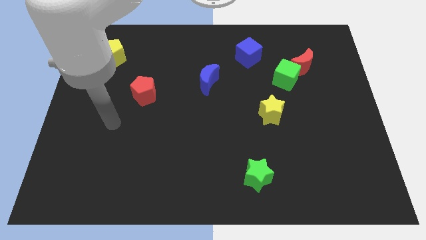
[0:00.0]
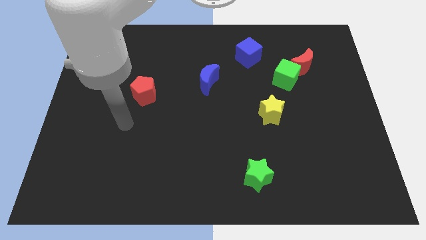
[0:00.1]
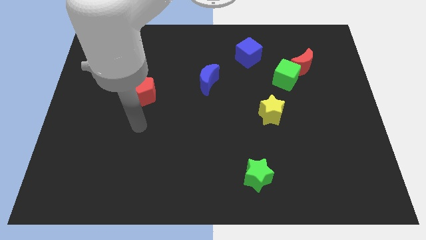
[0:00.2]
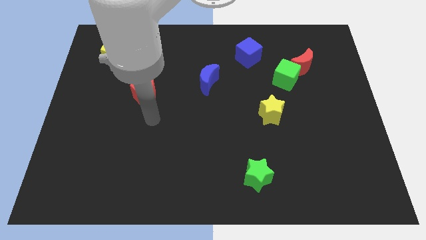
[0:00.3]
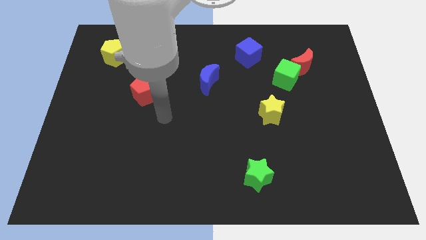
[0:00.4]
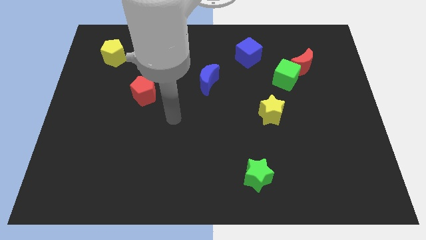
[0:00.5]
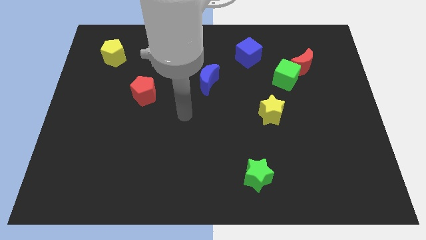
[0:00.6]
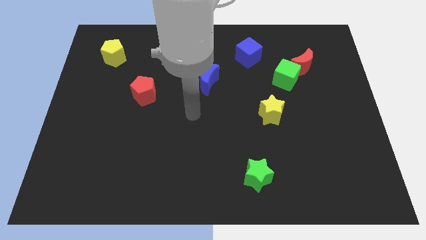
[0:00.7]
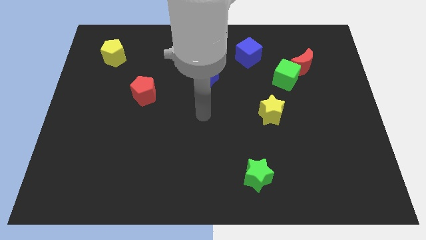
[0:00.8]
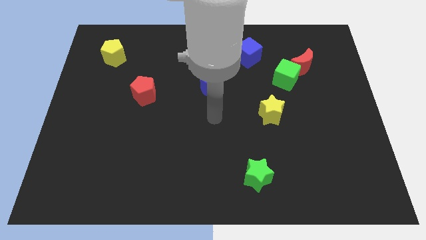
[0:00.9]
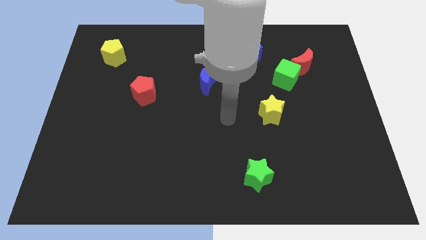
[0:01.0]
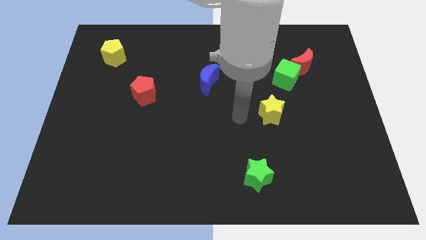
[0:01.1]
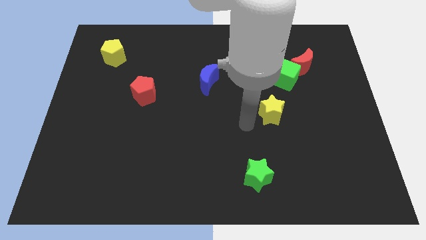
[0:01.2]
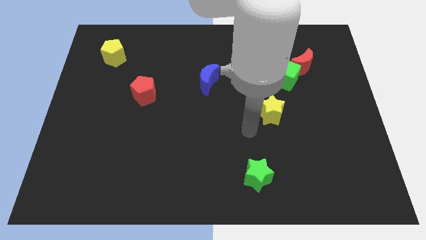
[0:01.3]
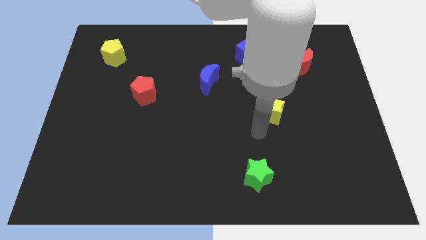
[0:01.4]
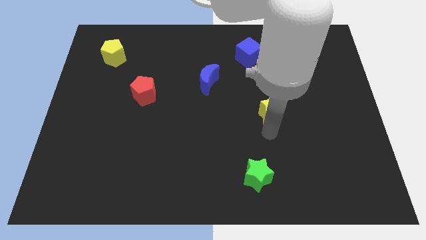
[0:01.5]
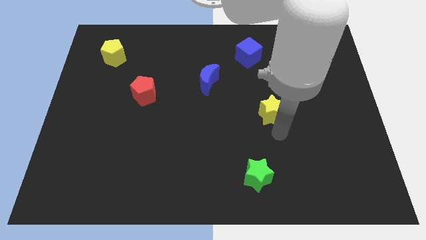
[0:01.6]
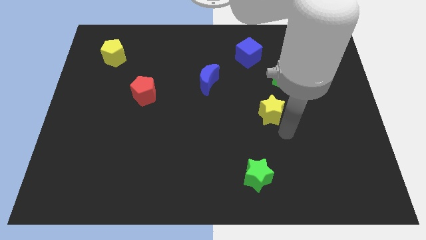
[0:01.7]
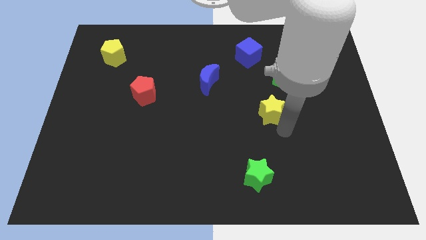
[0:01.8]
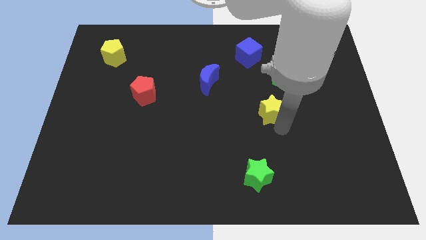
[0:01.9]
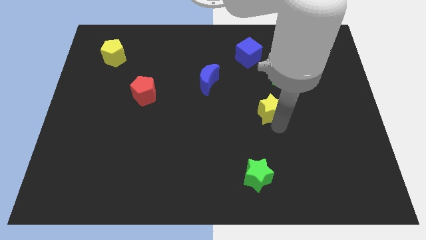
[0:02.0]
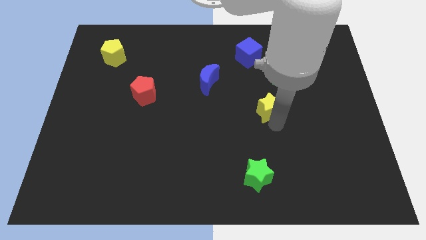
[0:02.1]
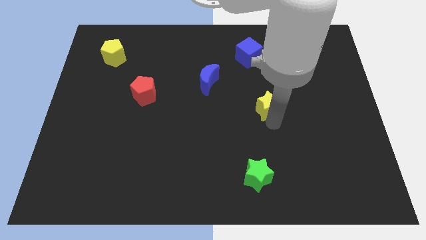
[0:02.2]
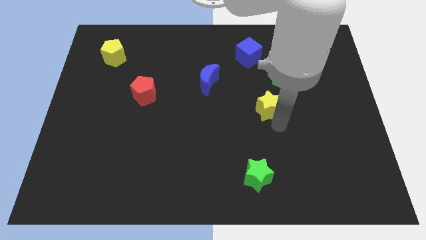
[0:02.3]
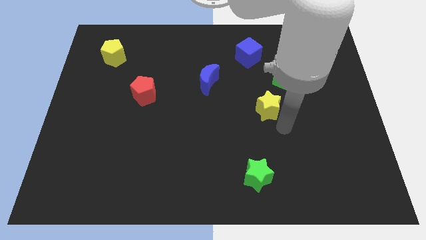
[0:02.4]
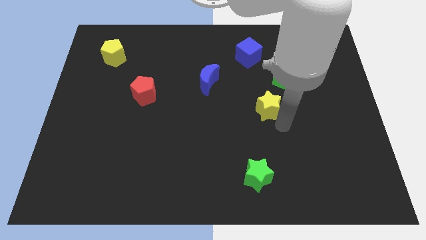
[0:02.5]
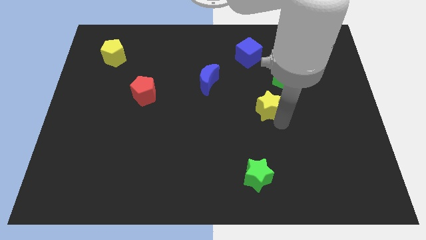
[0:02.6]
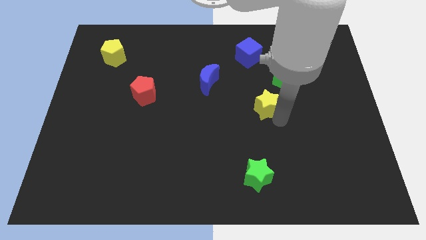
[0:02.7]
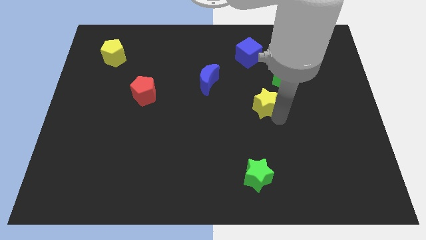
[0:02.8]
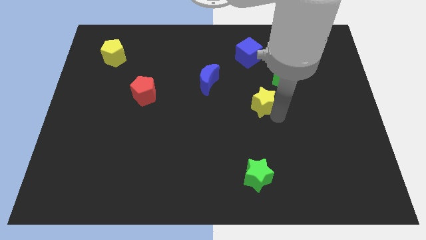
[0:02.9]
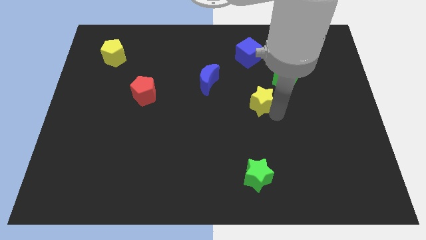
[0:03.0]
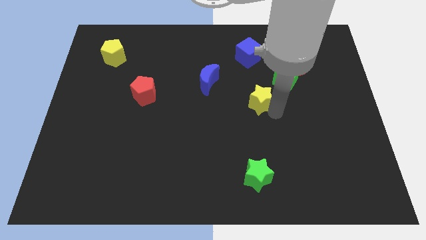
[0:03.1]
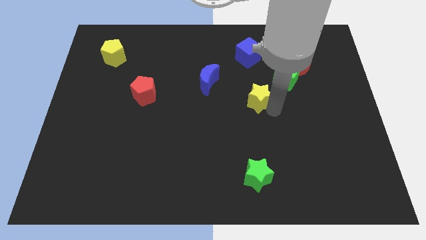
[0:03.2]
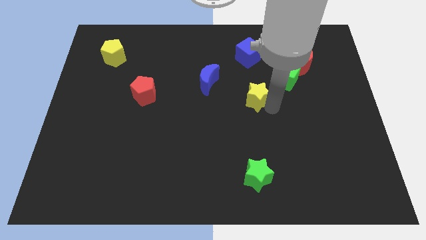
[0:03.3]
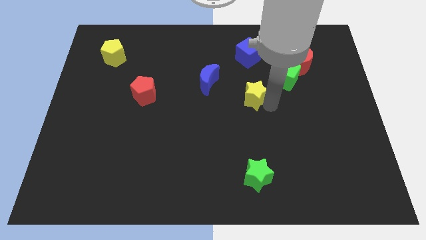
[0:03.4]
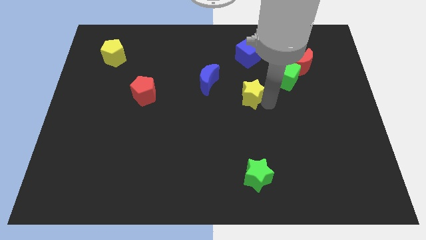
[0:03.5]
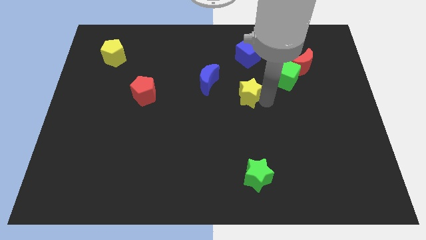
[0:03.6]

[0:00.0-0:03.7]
slide the yellow star a bit up and then to the left

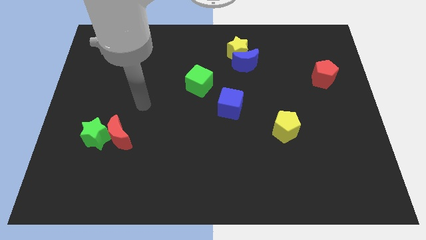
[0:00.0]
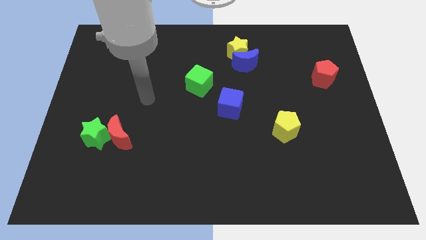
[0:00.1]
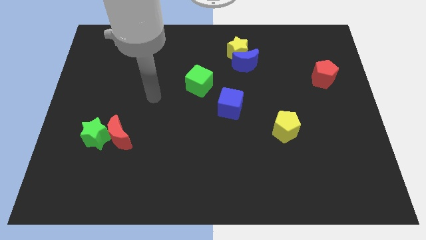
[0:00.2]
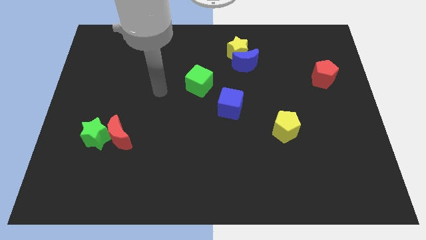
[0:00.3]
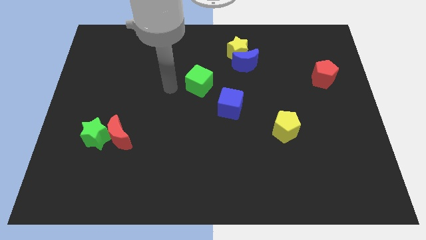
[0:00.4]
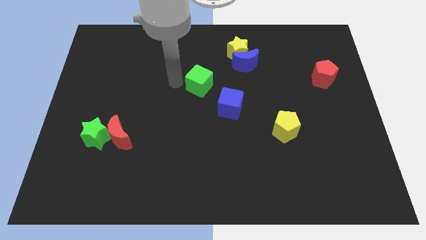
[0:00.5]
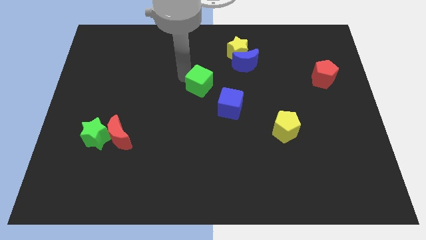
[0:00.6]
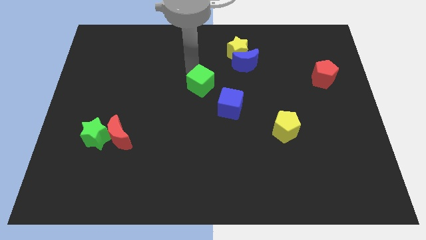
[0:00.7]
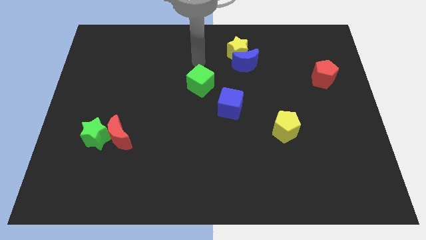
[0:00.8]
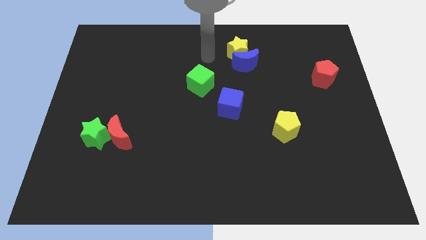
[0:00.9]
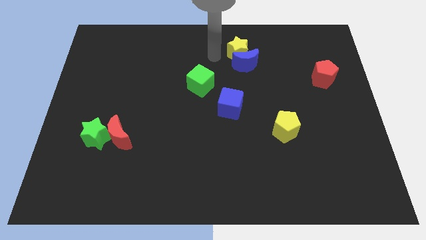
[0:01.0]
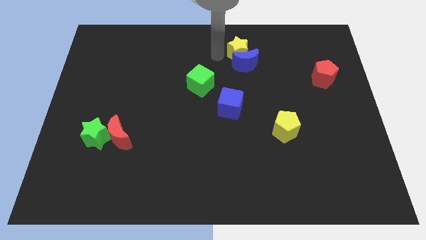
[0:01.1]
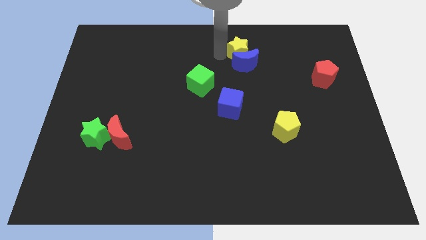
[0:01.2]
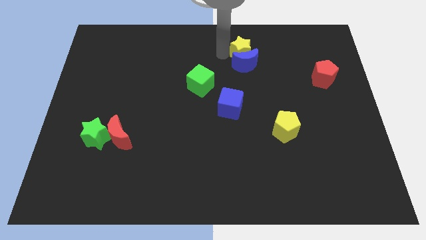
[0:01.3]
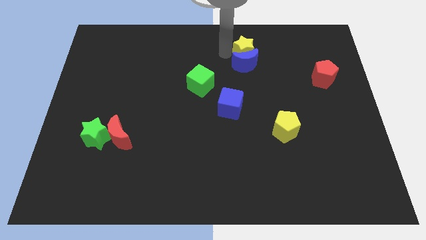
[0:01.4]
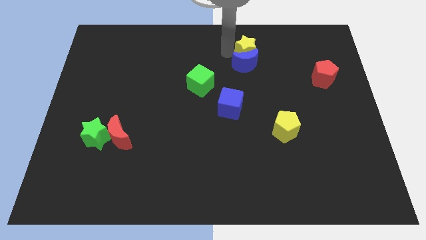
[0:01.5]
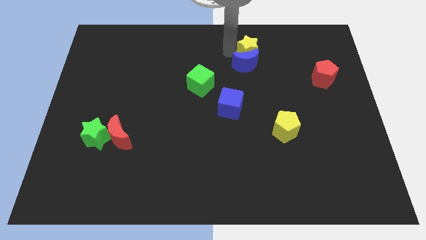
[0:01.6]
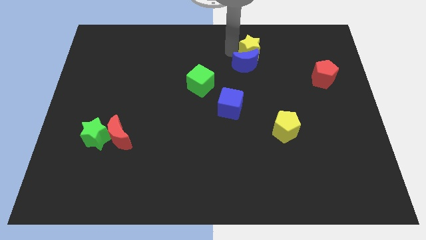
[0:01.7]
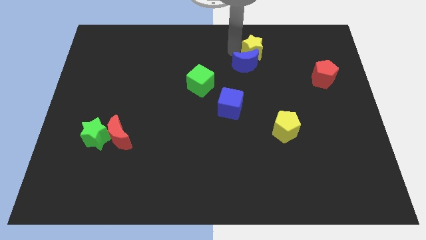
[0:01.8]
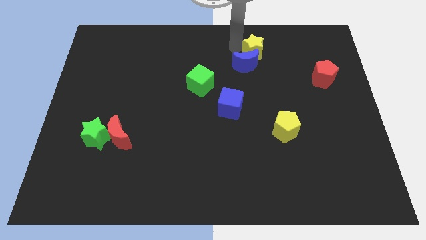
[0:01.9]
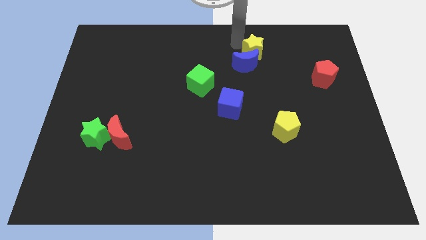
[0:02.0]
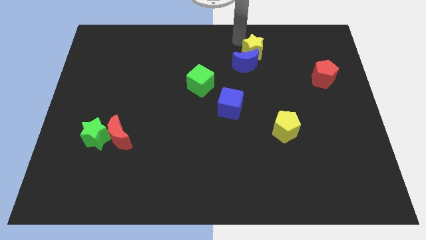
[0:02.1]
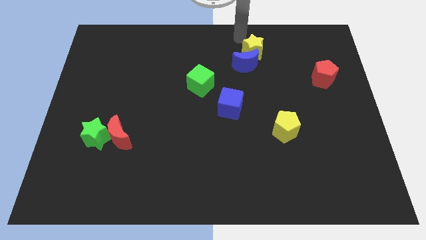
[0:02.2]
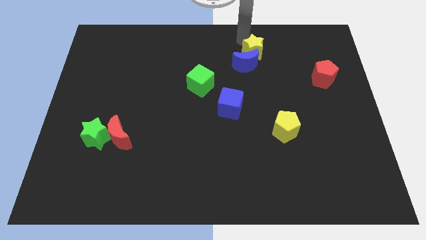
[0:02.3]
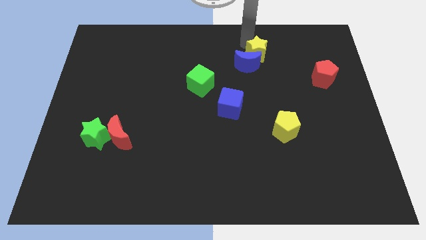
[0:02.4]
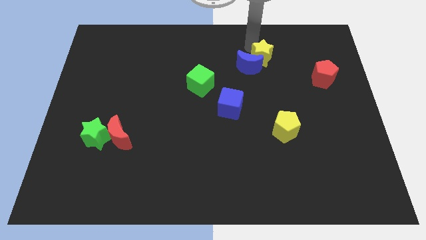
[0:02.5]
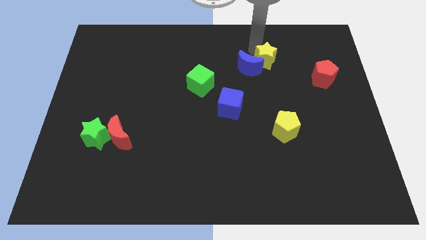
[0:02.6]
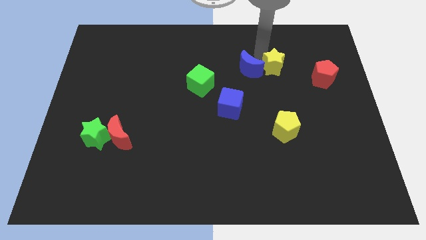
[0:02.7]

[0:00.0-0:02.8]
slide the yellow star downwards and right diagonally a bit

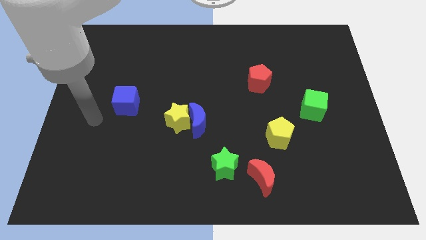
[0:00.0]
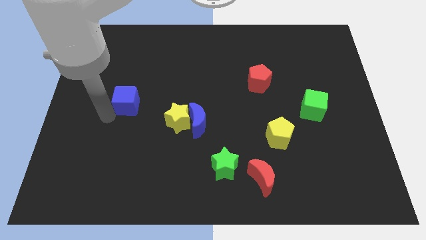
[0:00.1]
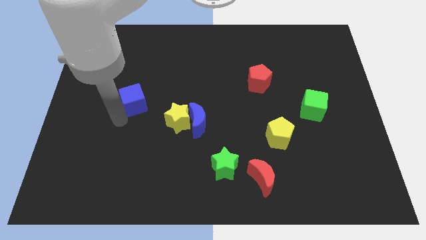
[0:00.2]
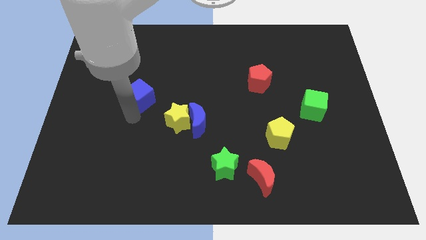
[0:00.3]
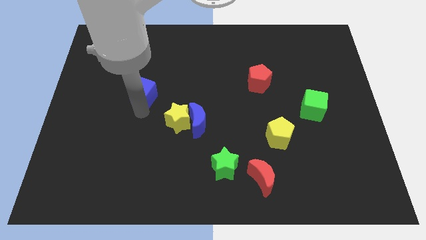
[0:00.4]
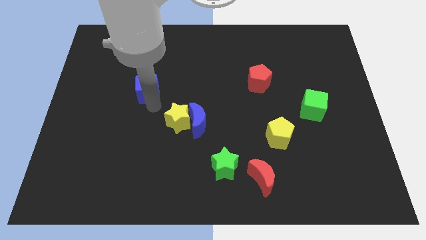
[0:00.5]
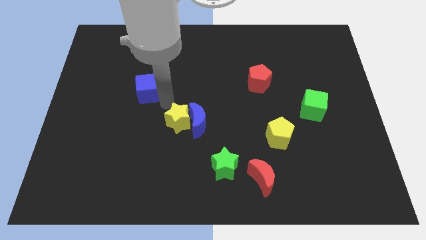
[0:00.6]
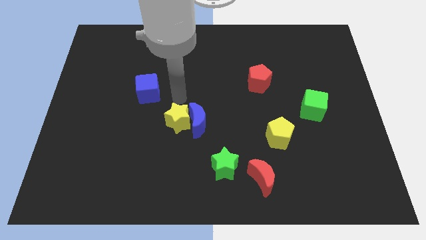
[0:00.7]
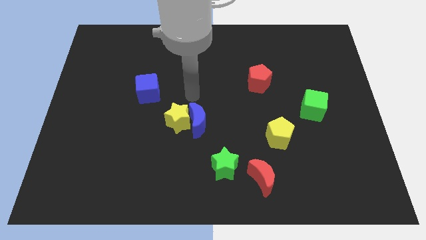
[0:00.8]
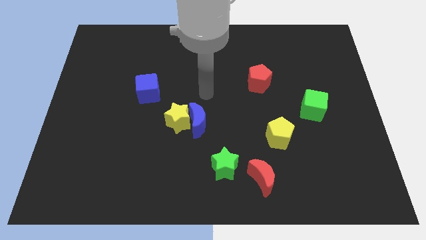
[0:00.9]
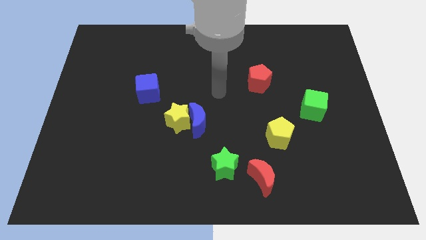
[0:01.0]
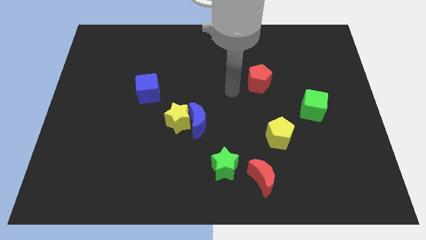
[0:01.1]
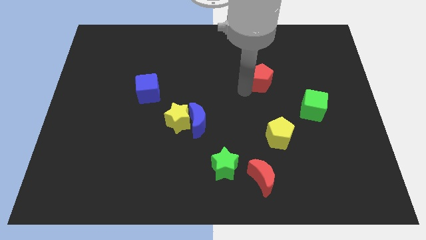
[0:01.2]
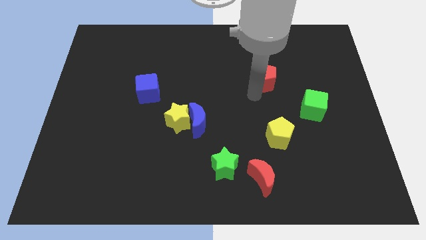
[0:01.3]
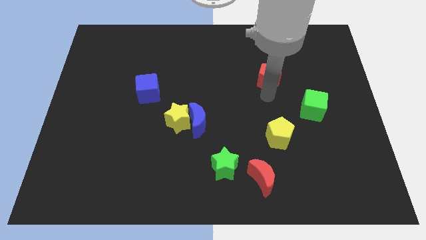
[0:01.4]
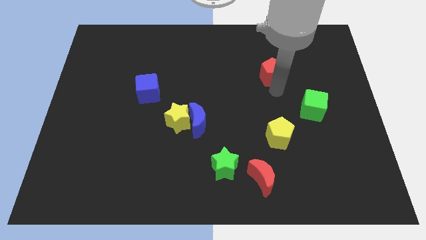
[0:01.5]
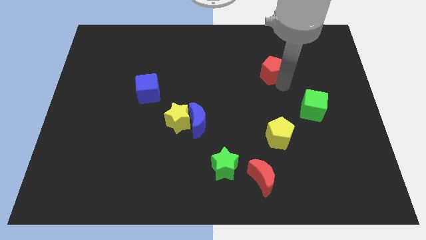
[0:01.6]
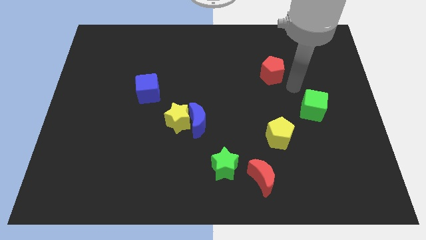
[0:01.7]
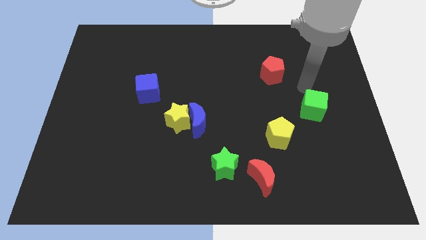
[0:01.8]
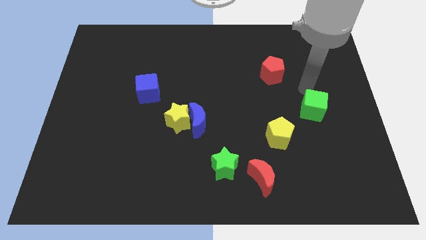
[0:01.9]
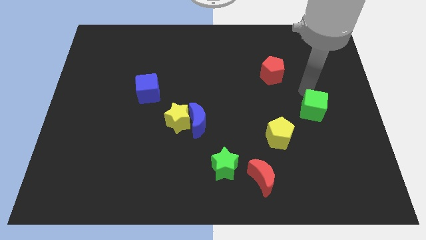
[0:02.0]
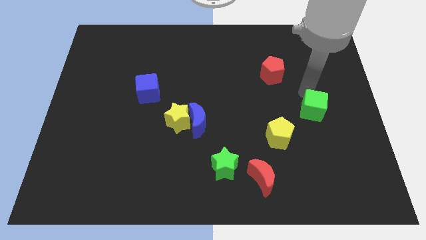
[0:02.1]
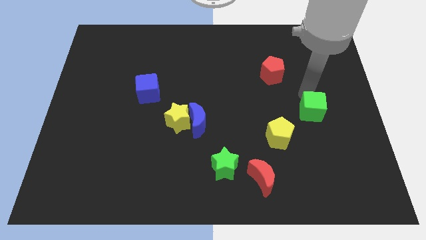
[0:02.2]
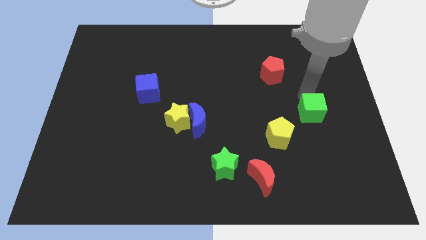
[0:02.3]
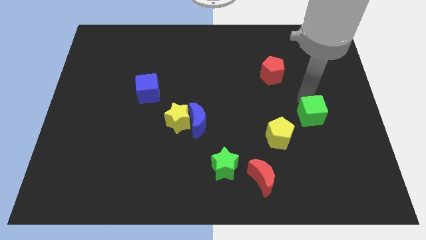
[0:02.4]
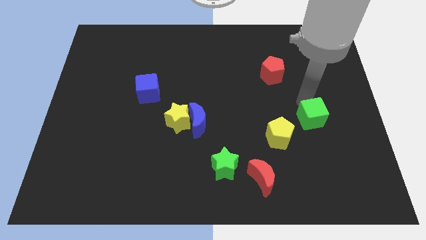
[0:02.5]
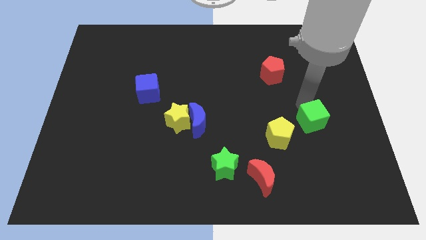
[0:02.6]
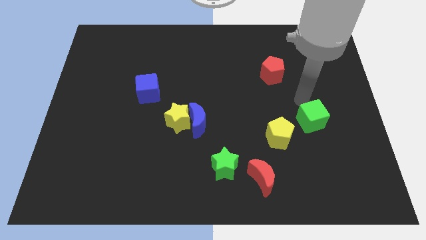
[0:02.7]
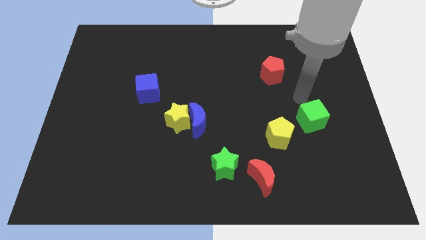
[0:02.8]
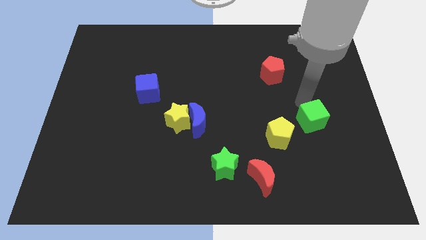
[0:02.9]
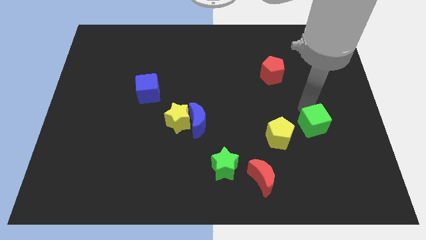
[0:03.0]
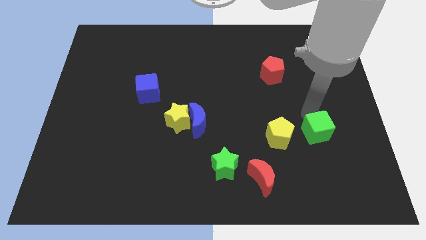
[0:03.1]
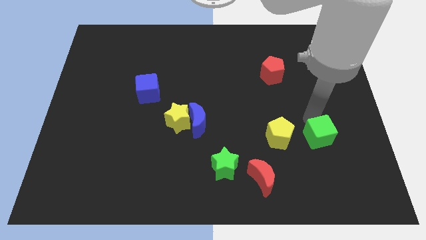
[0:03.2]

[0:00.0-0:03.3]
slightly push the green cube downwards
